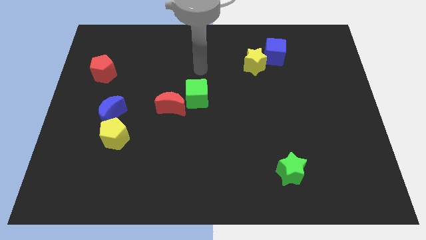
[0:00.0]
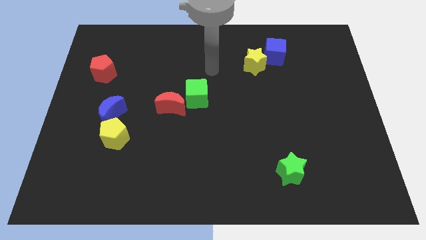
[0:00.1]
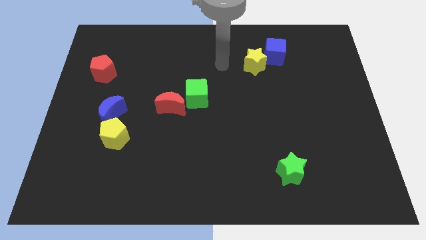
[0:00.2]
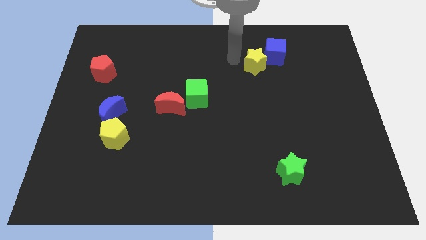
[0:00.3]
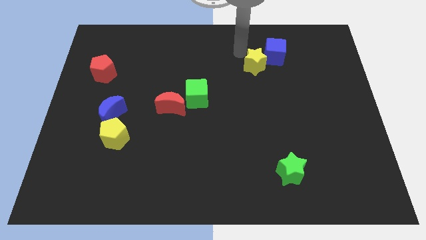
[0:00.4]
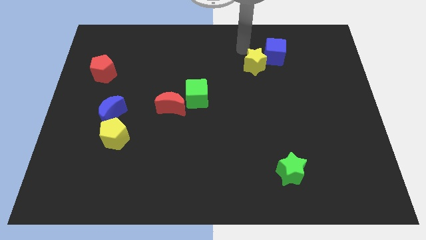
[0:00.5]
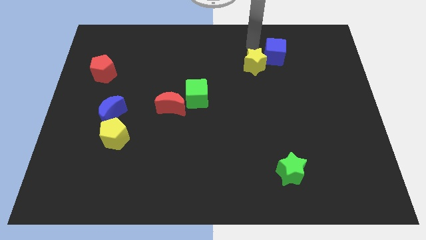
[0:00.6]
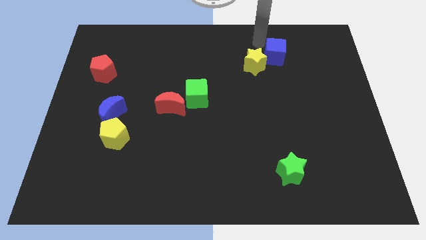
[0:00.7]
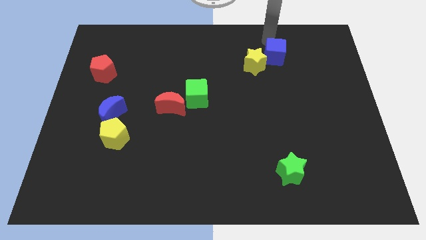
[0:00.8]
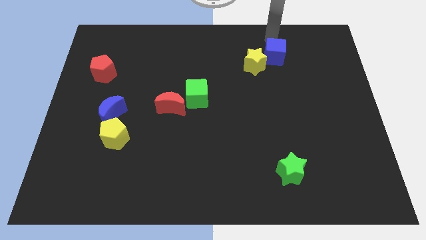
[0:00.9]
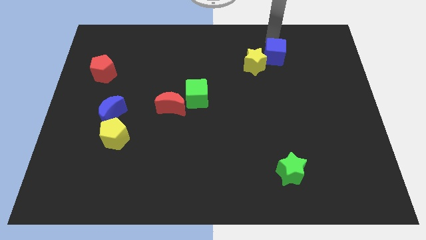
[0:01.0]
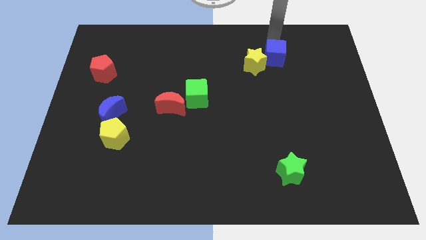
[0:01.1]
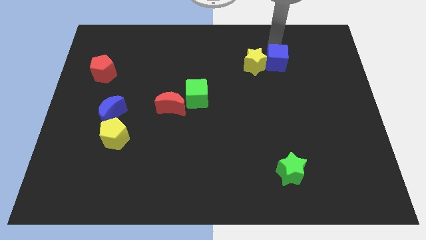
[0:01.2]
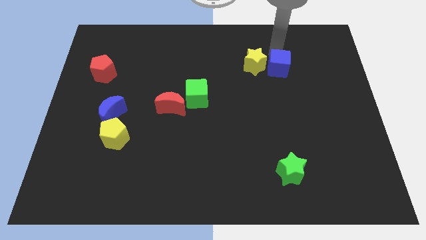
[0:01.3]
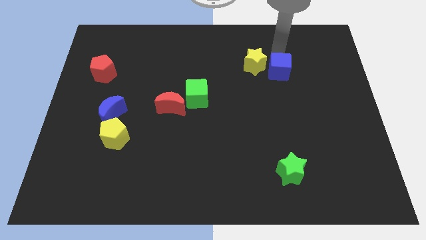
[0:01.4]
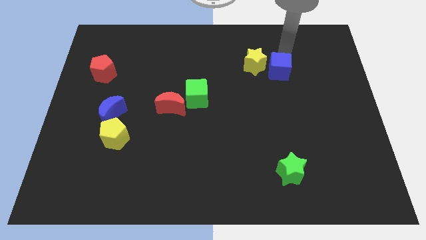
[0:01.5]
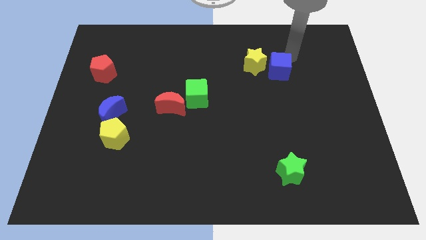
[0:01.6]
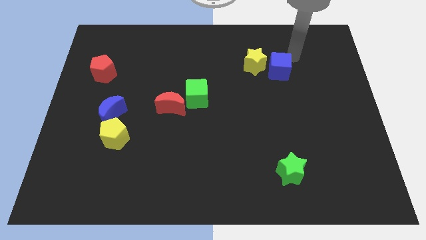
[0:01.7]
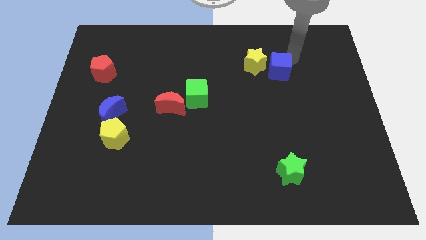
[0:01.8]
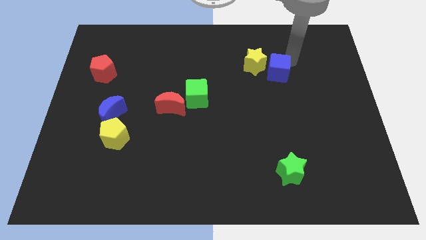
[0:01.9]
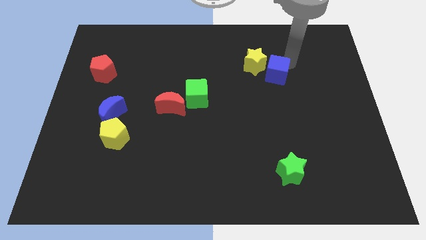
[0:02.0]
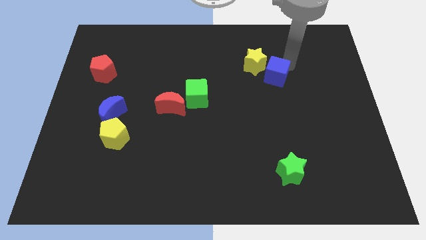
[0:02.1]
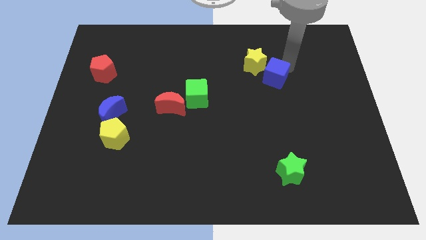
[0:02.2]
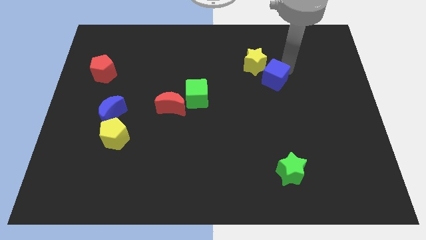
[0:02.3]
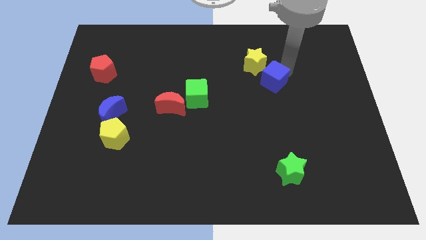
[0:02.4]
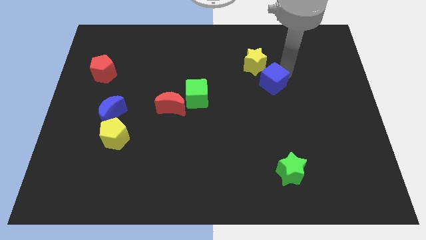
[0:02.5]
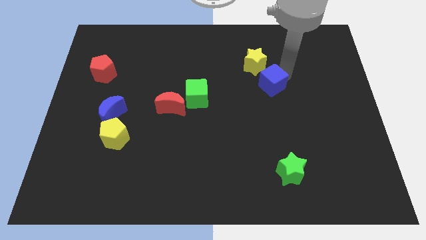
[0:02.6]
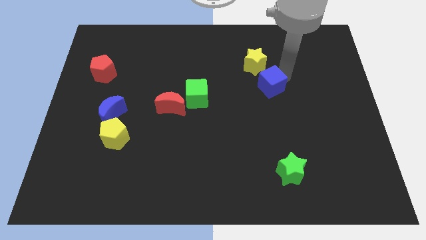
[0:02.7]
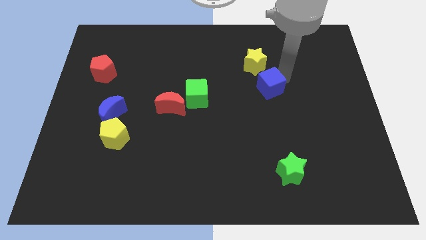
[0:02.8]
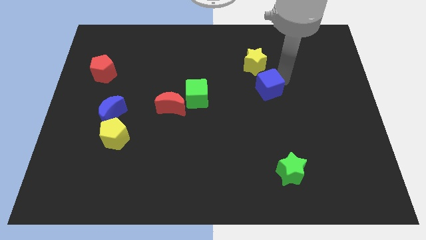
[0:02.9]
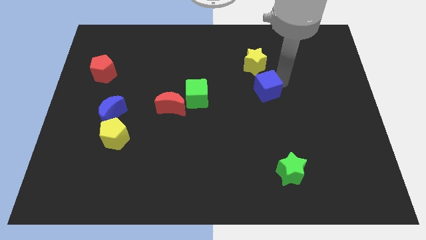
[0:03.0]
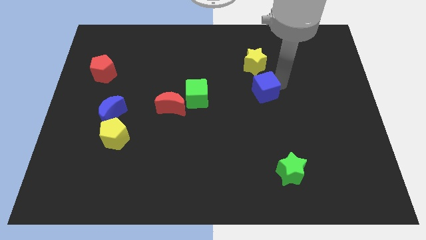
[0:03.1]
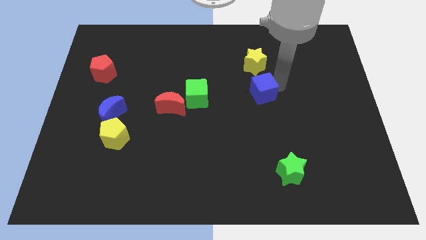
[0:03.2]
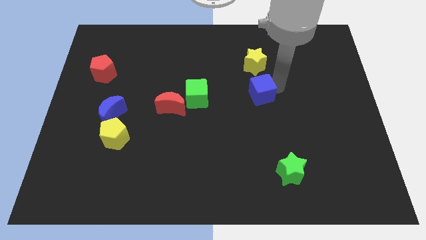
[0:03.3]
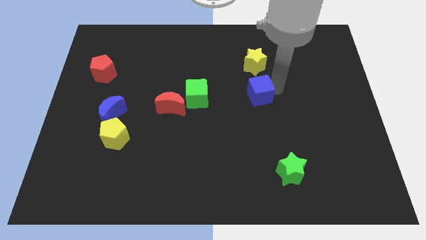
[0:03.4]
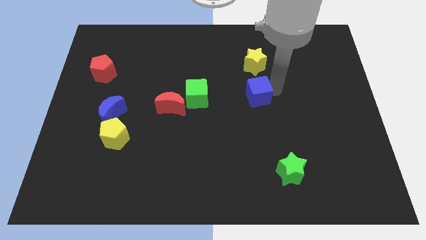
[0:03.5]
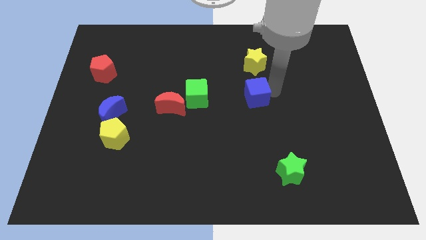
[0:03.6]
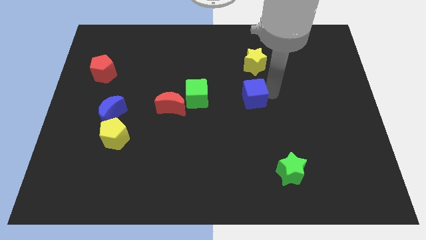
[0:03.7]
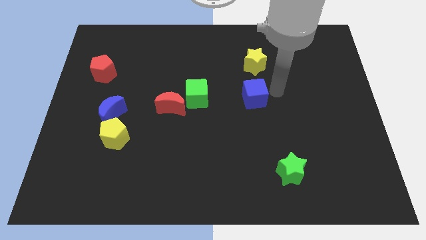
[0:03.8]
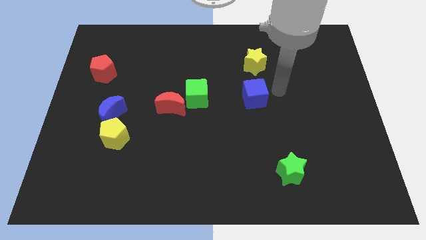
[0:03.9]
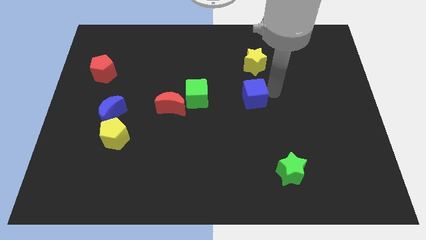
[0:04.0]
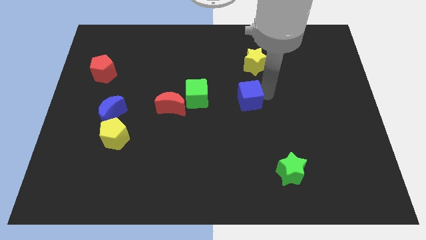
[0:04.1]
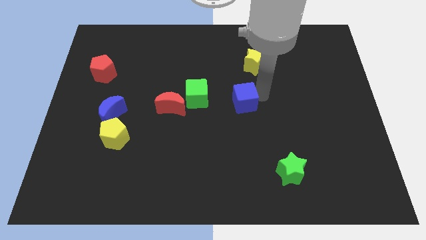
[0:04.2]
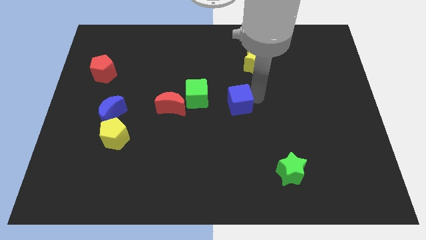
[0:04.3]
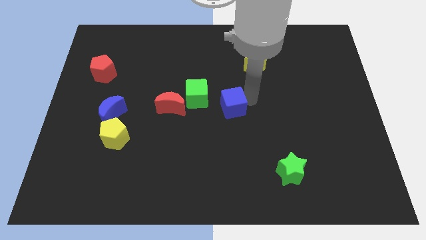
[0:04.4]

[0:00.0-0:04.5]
slide the blue cube diagonally down and to the left

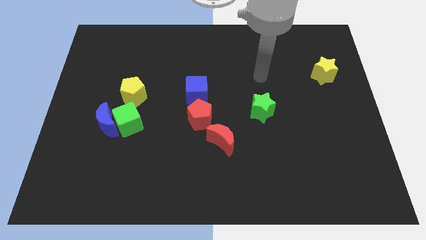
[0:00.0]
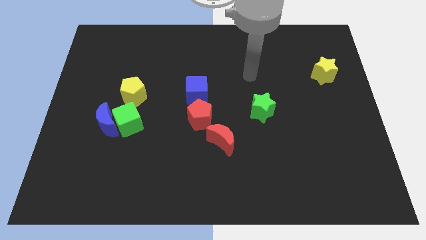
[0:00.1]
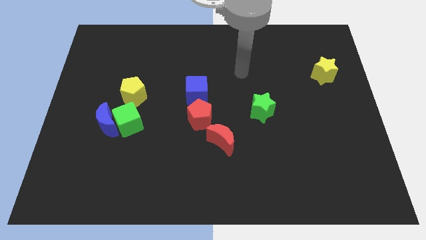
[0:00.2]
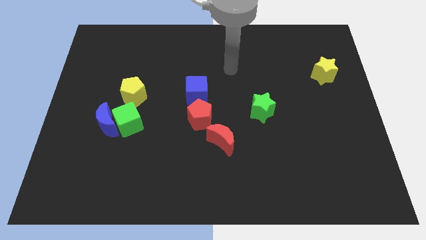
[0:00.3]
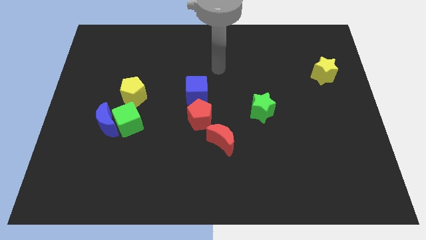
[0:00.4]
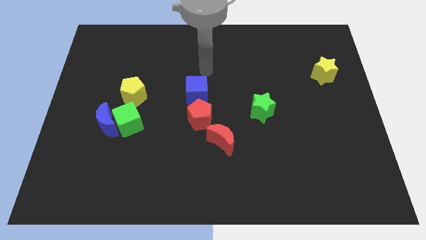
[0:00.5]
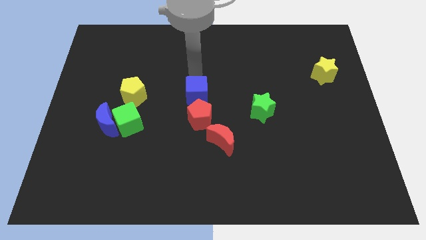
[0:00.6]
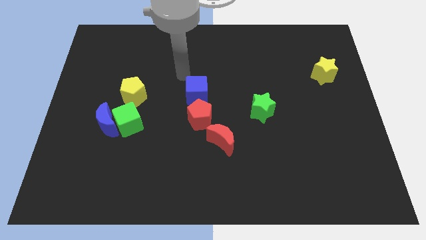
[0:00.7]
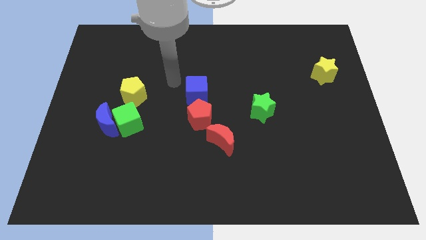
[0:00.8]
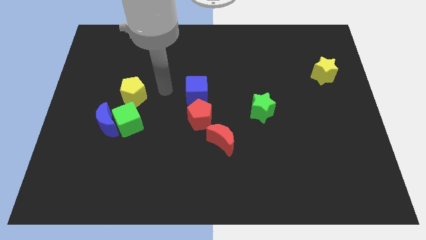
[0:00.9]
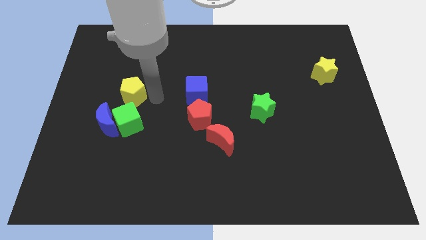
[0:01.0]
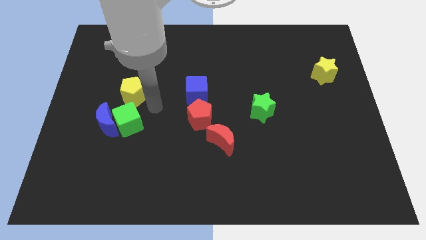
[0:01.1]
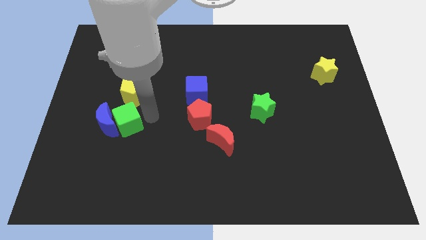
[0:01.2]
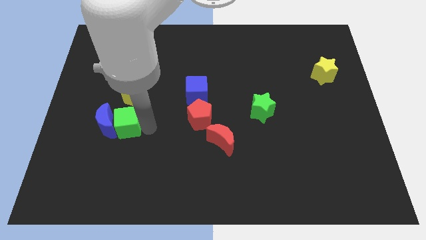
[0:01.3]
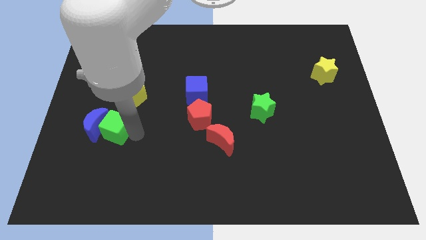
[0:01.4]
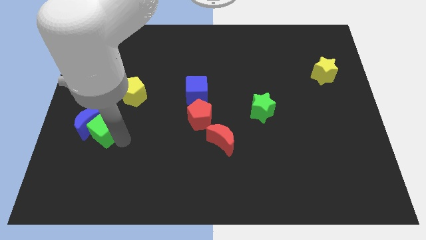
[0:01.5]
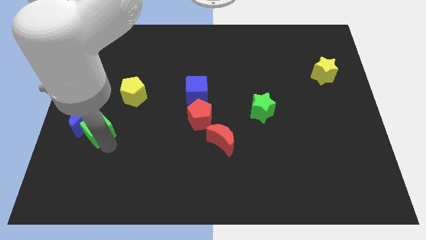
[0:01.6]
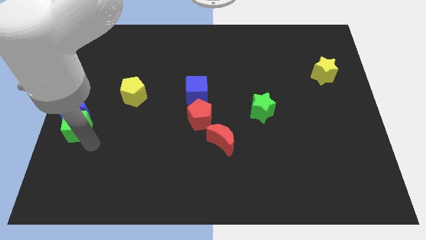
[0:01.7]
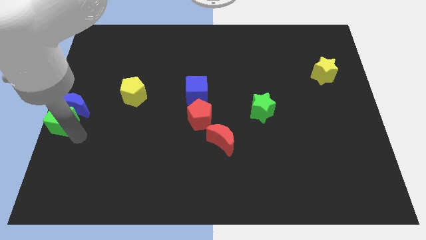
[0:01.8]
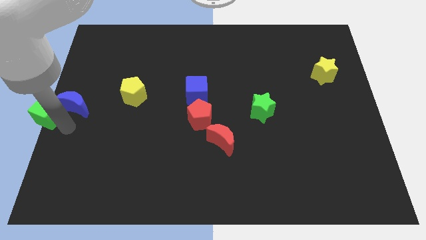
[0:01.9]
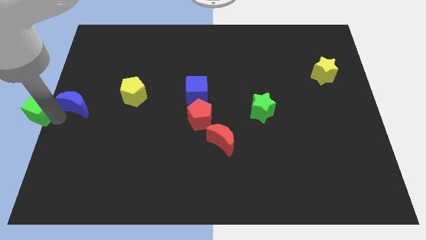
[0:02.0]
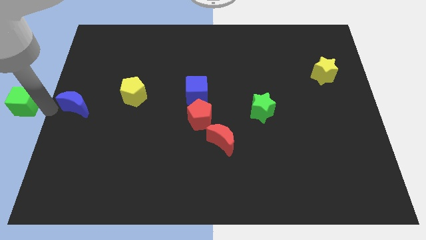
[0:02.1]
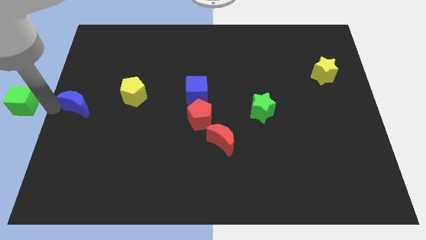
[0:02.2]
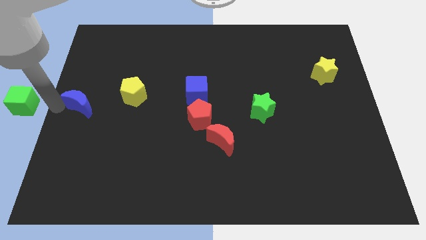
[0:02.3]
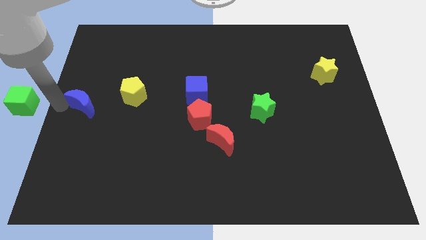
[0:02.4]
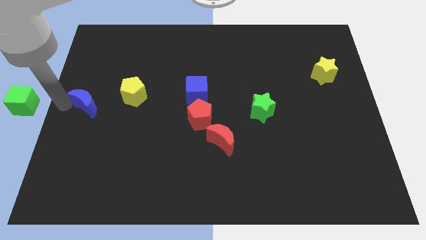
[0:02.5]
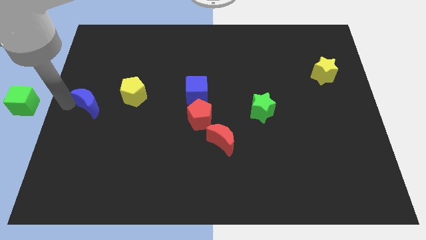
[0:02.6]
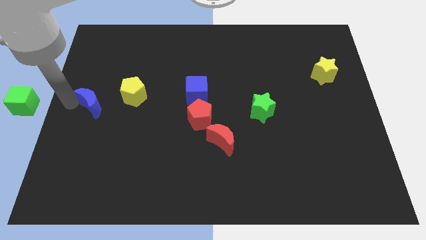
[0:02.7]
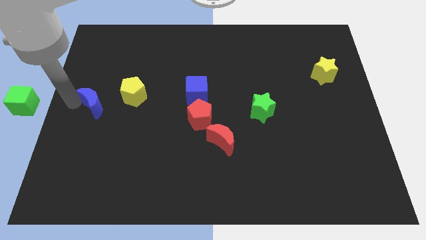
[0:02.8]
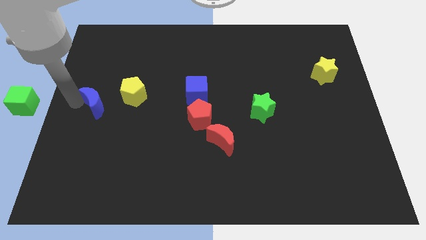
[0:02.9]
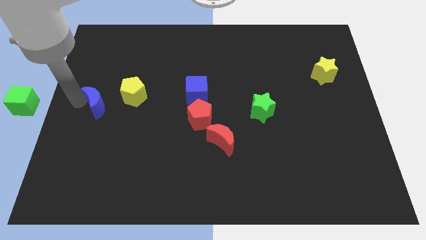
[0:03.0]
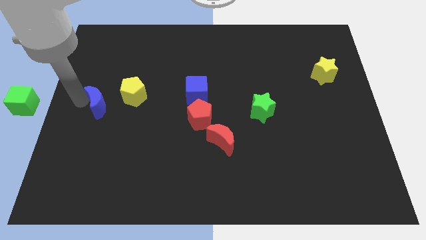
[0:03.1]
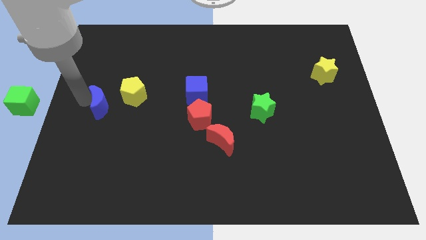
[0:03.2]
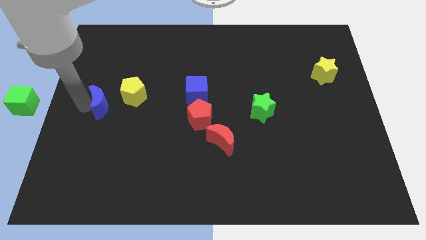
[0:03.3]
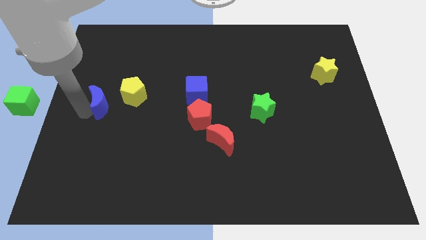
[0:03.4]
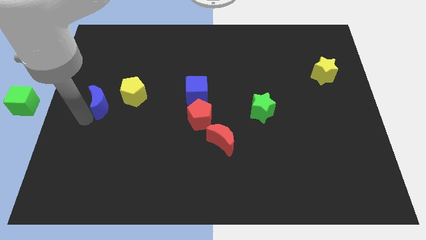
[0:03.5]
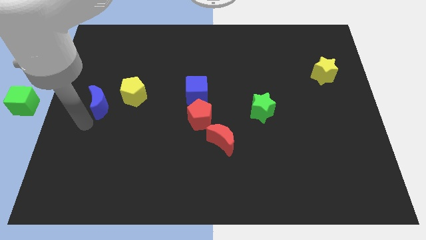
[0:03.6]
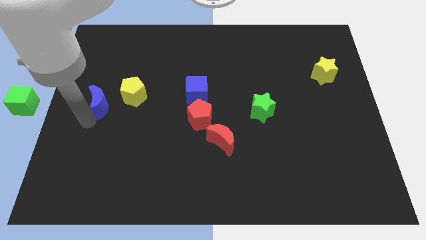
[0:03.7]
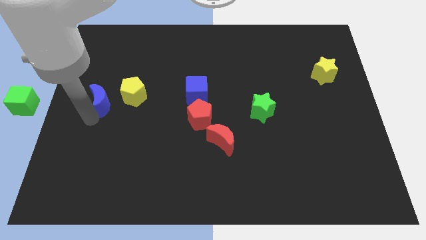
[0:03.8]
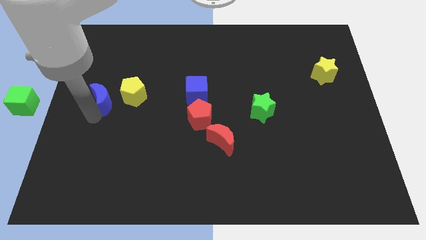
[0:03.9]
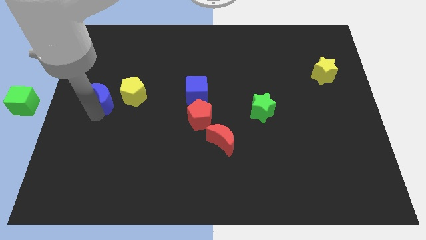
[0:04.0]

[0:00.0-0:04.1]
slightly push the blue moon up
